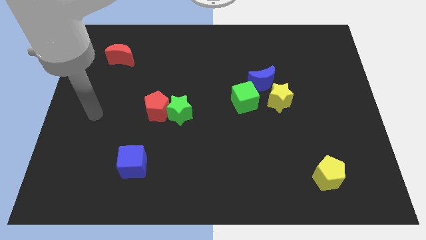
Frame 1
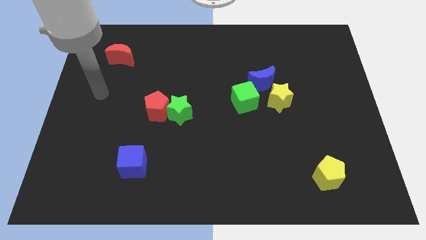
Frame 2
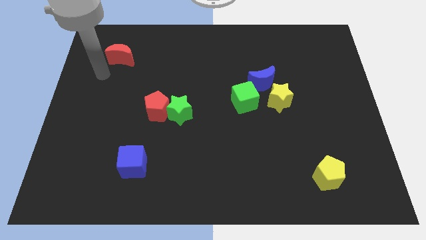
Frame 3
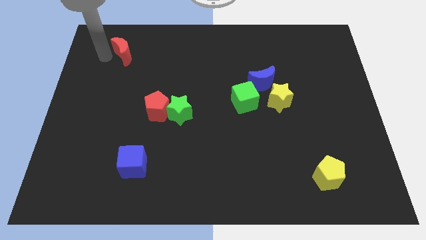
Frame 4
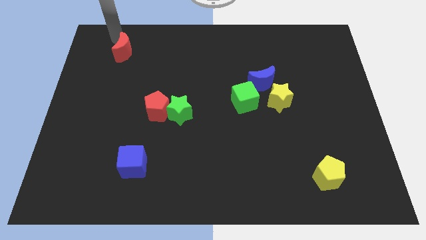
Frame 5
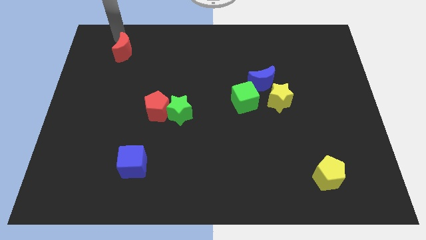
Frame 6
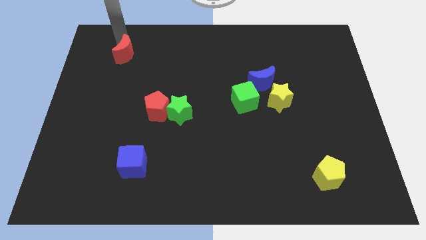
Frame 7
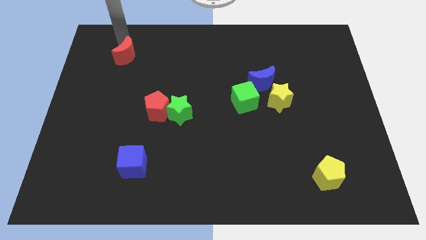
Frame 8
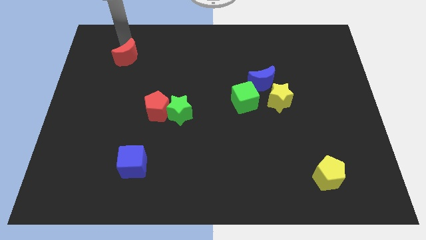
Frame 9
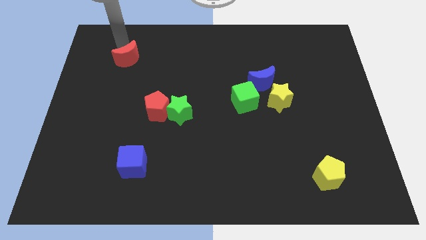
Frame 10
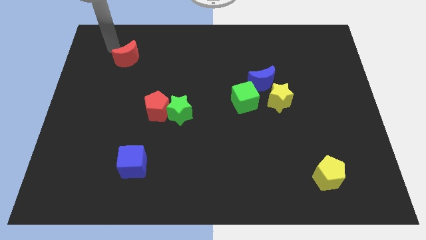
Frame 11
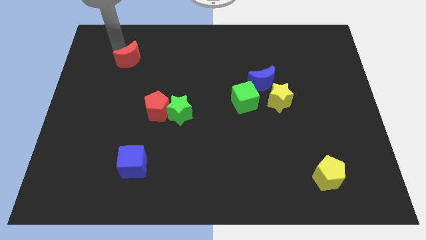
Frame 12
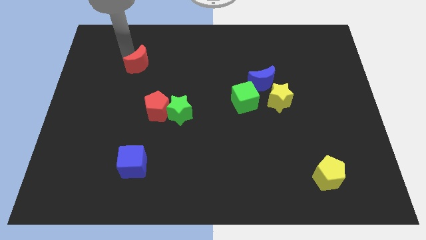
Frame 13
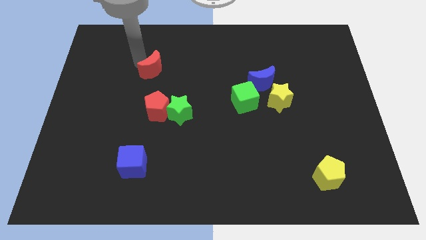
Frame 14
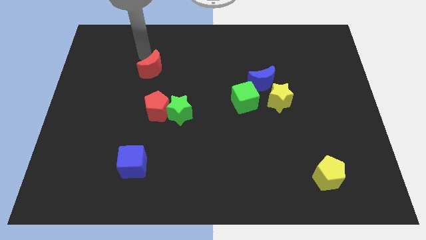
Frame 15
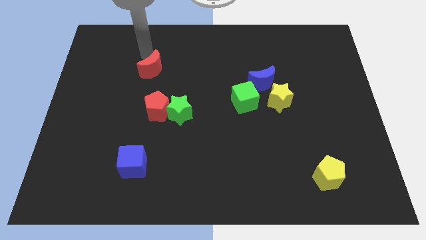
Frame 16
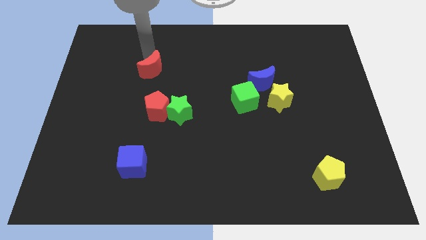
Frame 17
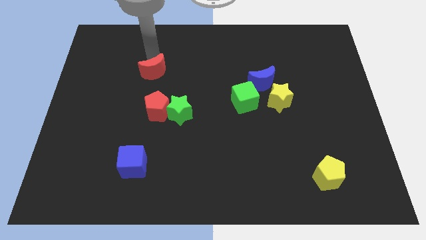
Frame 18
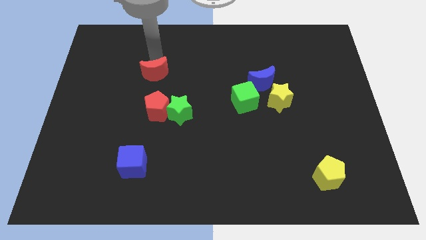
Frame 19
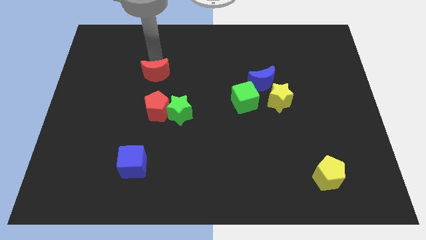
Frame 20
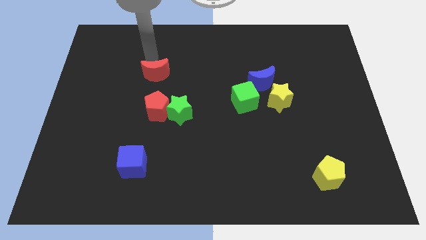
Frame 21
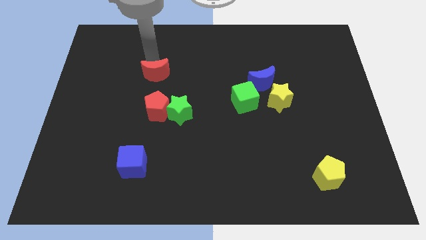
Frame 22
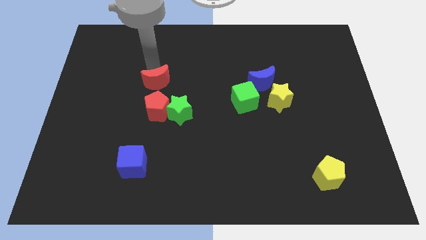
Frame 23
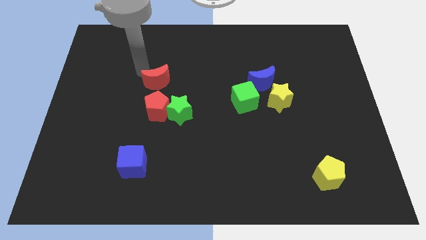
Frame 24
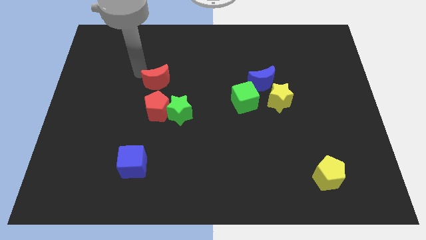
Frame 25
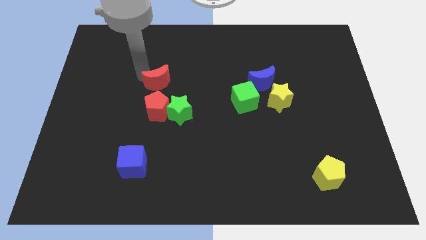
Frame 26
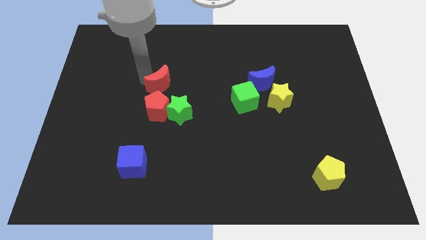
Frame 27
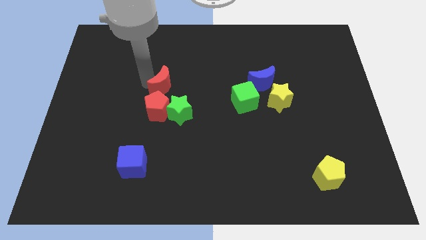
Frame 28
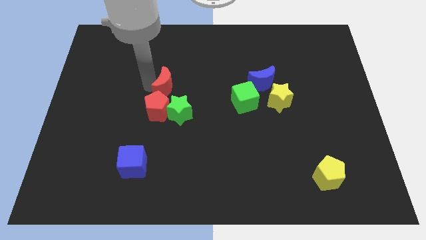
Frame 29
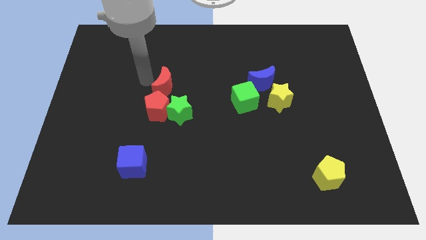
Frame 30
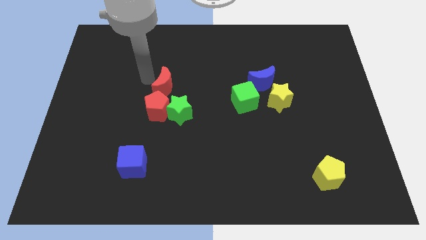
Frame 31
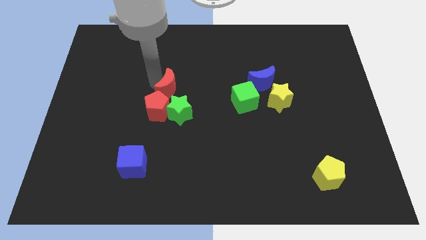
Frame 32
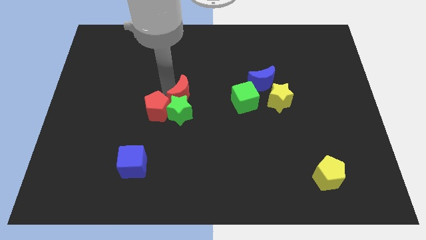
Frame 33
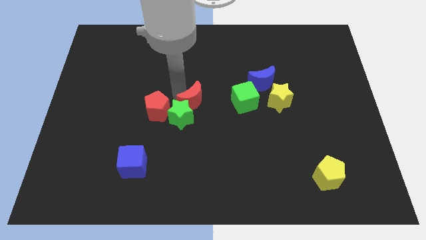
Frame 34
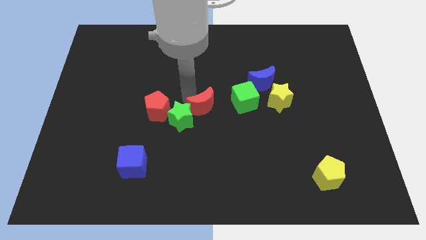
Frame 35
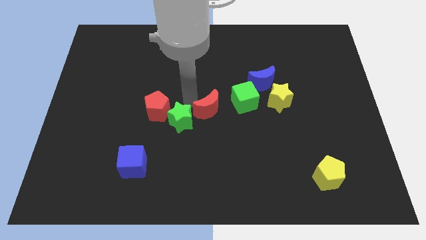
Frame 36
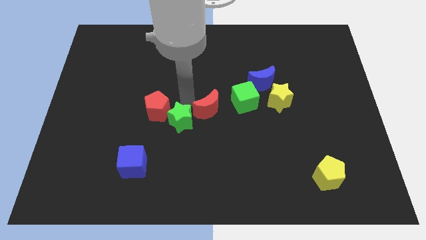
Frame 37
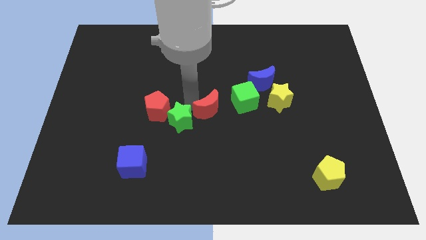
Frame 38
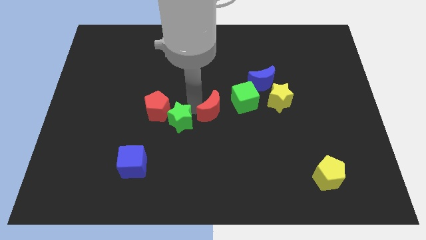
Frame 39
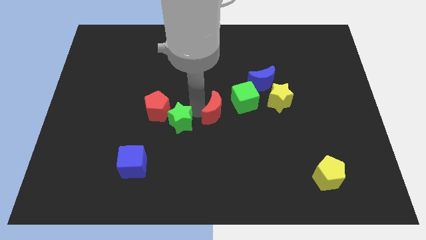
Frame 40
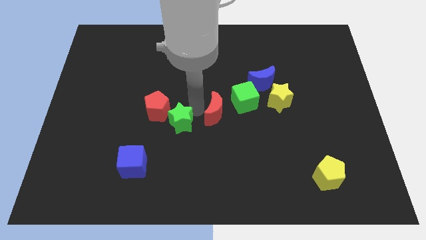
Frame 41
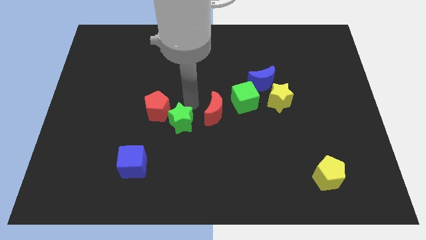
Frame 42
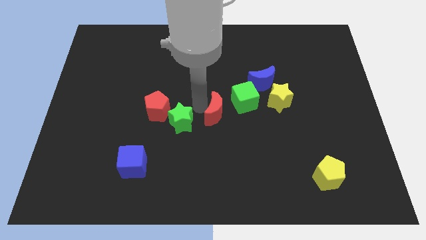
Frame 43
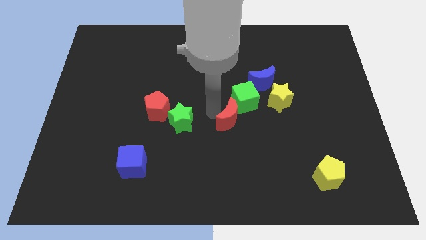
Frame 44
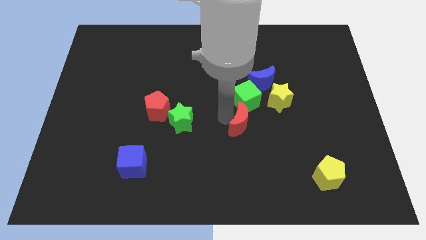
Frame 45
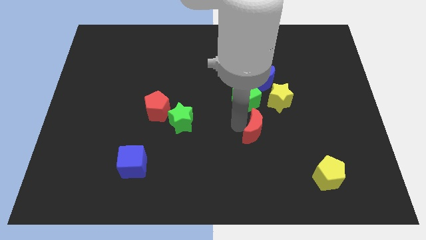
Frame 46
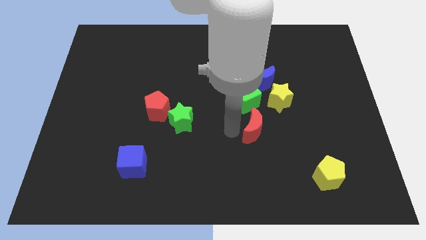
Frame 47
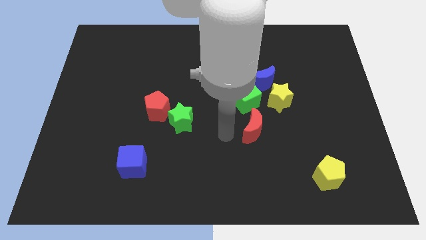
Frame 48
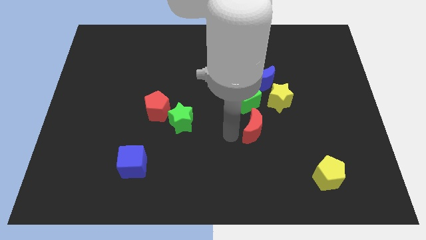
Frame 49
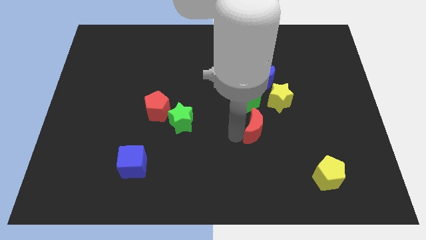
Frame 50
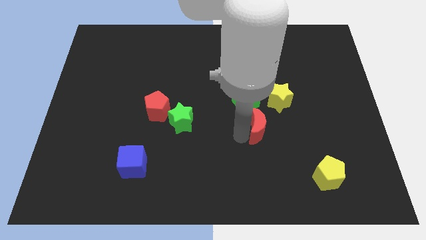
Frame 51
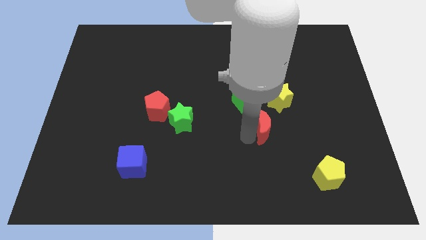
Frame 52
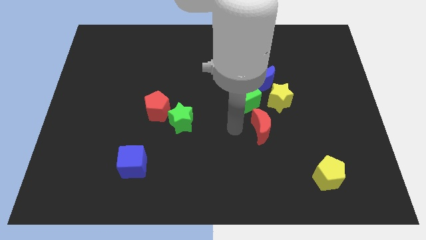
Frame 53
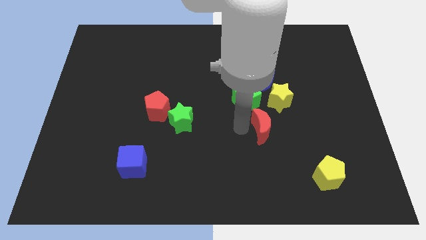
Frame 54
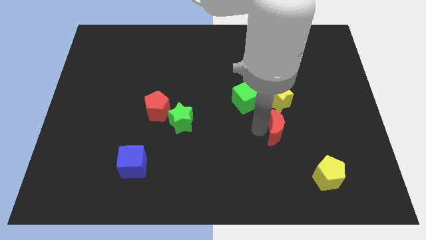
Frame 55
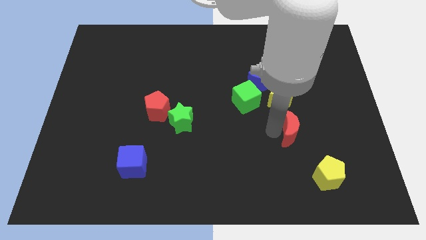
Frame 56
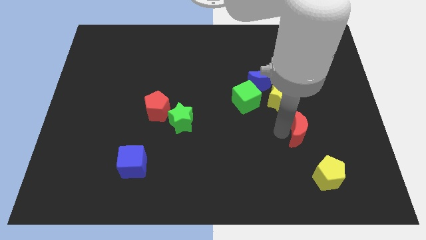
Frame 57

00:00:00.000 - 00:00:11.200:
put the red moon above the yellow pentagon

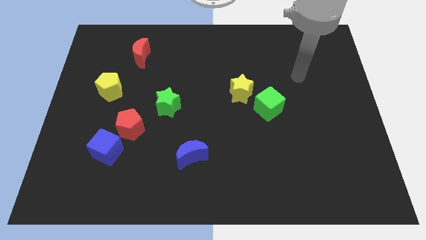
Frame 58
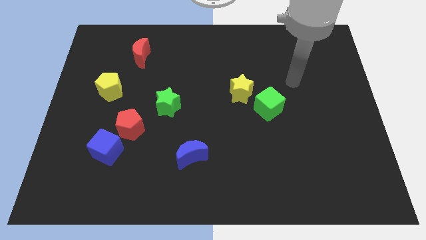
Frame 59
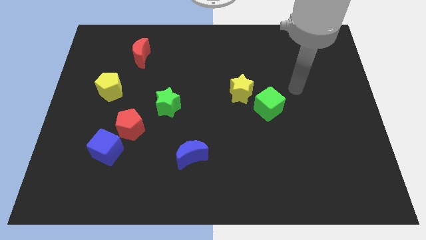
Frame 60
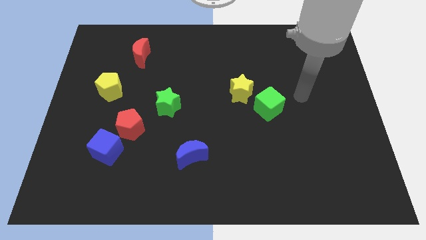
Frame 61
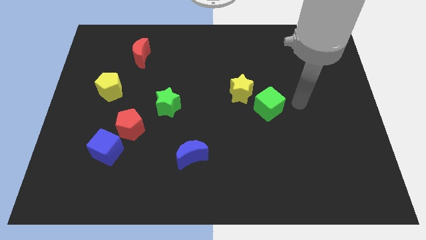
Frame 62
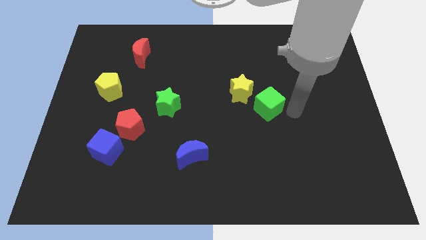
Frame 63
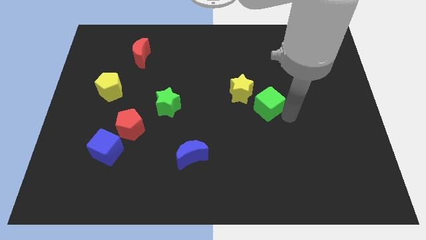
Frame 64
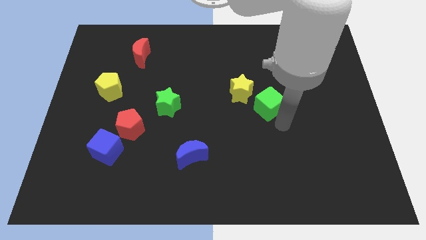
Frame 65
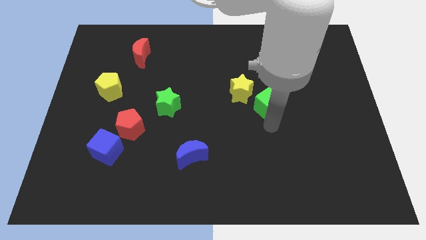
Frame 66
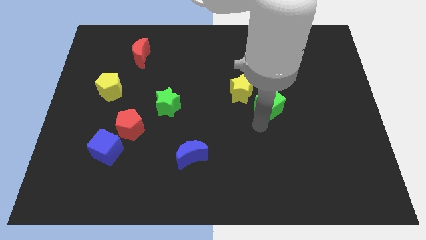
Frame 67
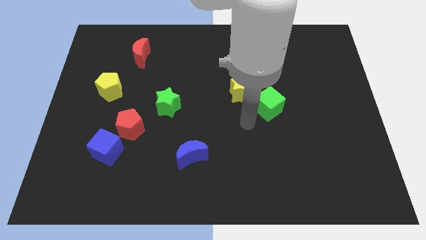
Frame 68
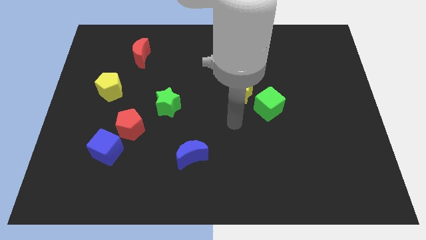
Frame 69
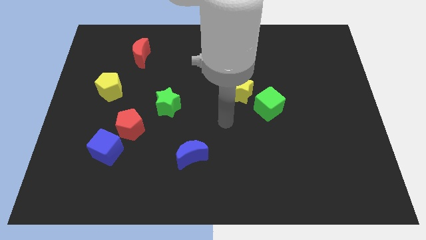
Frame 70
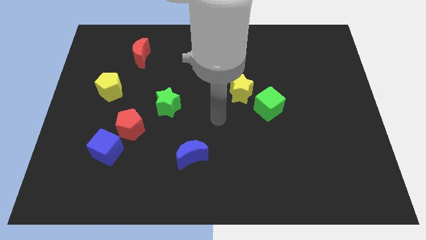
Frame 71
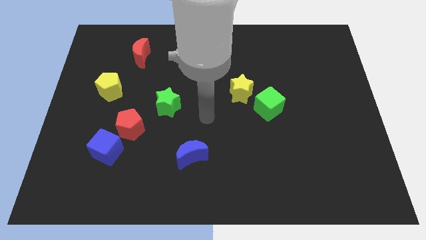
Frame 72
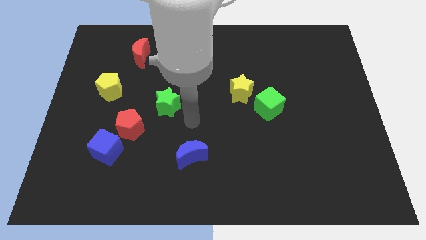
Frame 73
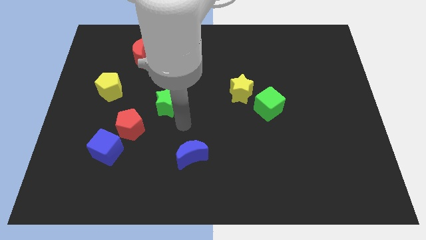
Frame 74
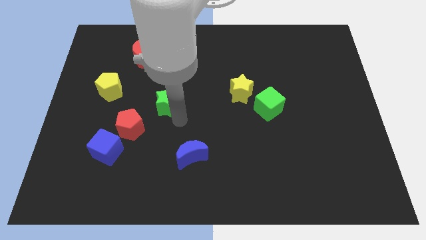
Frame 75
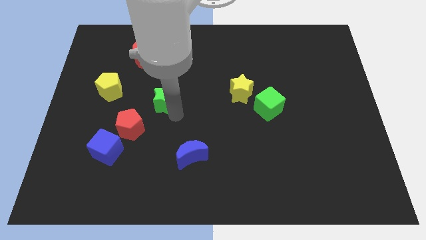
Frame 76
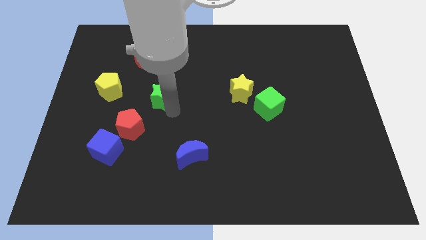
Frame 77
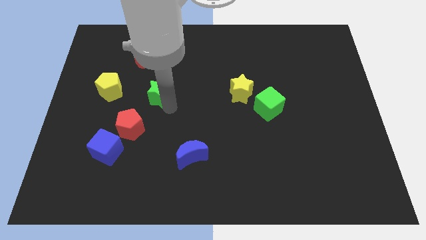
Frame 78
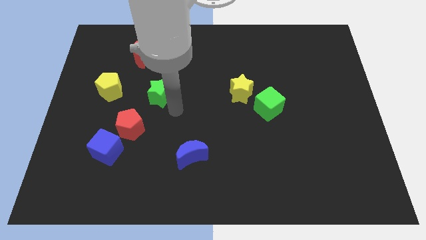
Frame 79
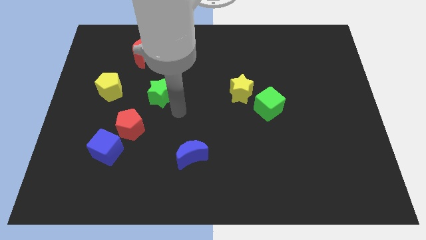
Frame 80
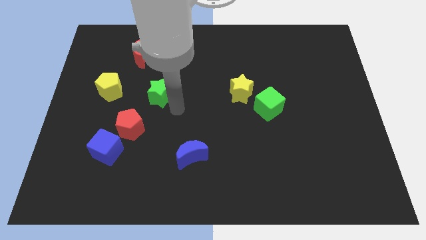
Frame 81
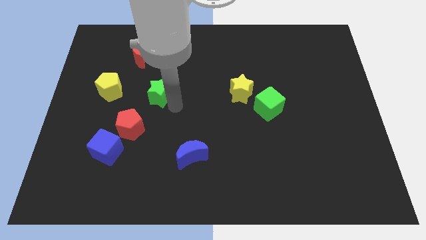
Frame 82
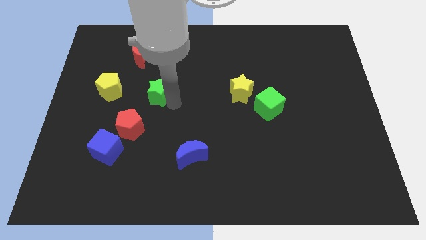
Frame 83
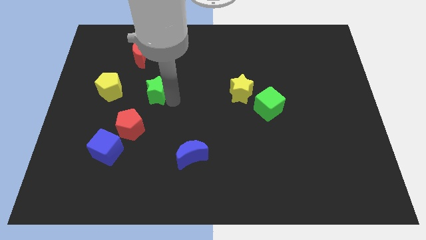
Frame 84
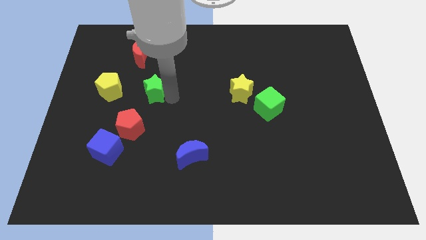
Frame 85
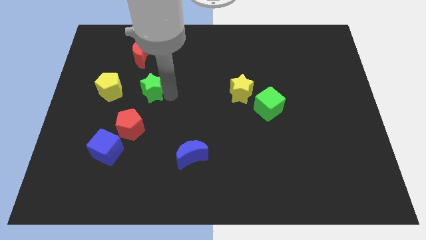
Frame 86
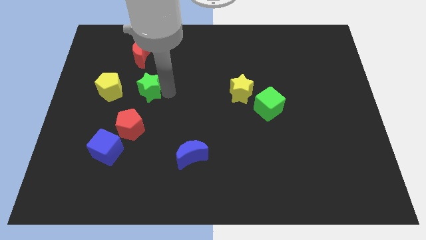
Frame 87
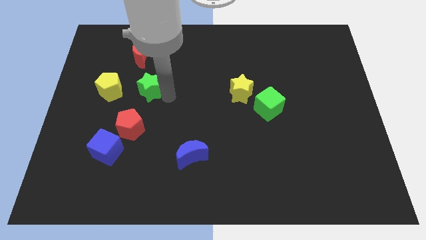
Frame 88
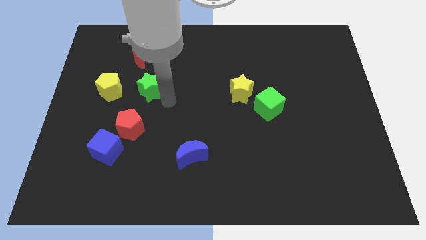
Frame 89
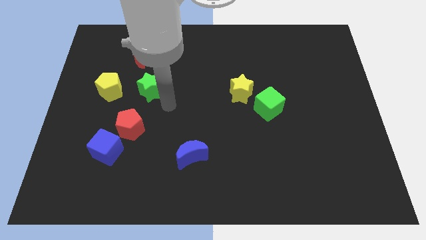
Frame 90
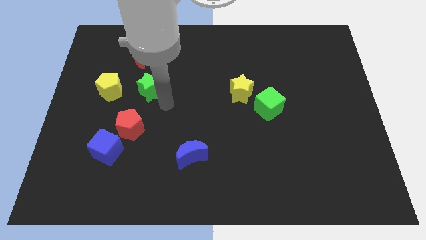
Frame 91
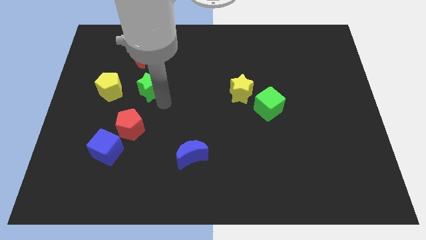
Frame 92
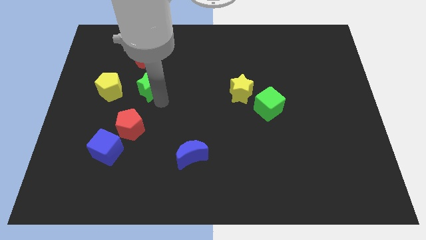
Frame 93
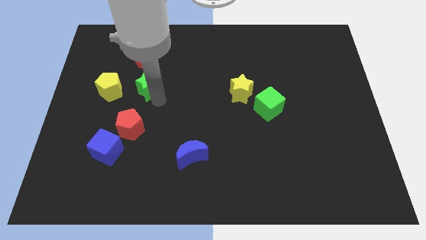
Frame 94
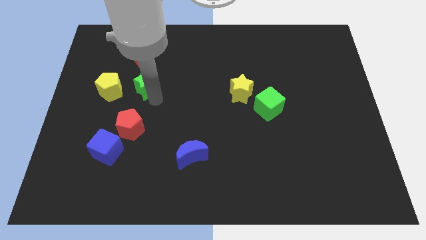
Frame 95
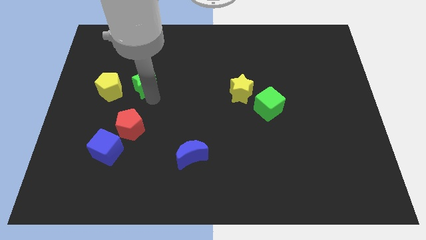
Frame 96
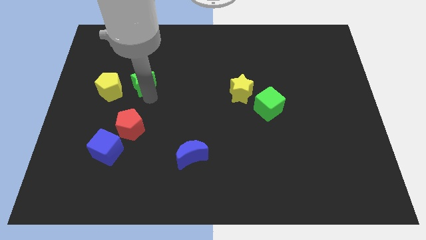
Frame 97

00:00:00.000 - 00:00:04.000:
slide the green star diagonally up and to the right of the yellow pentagon
